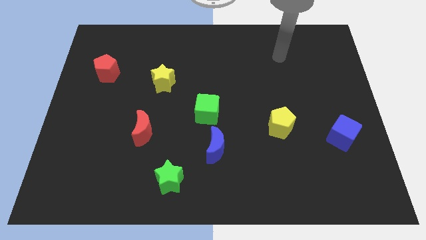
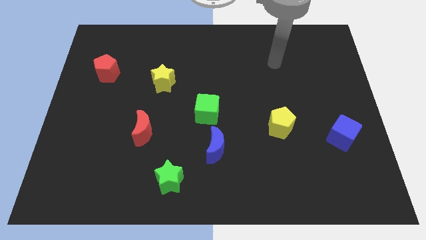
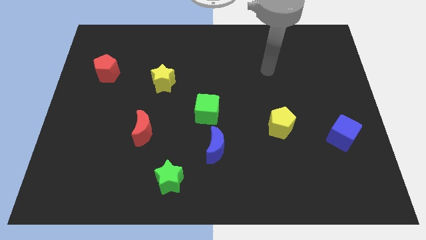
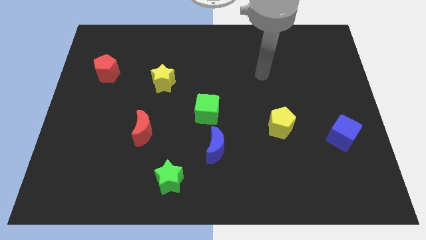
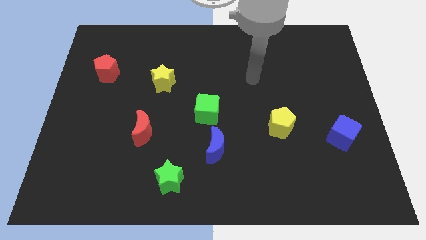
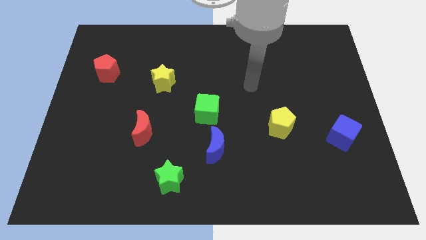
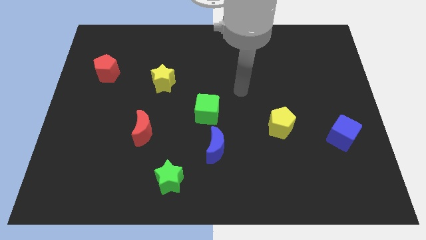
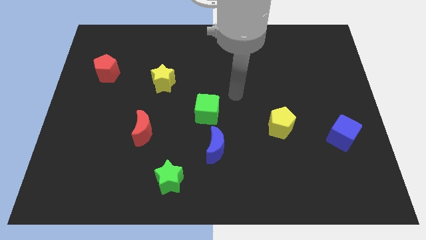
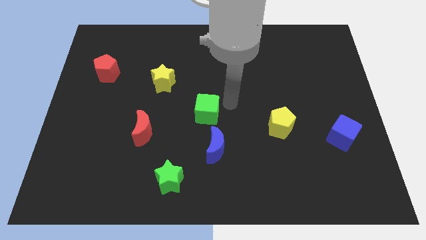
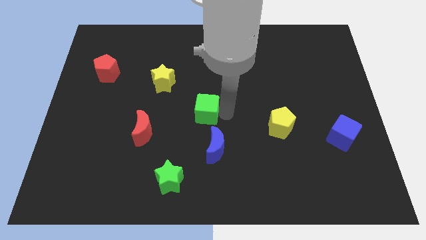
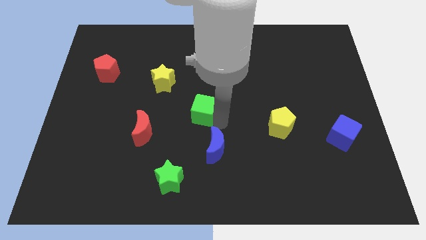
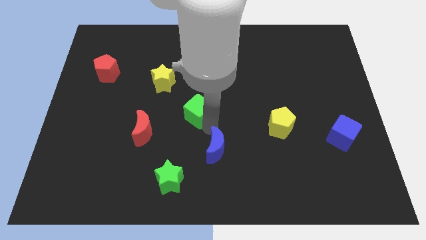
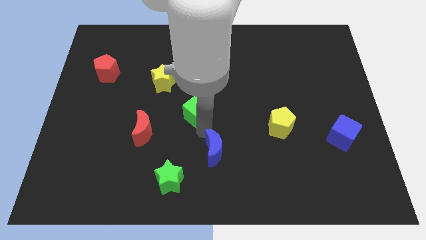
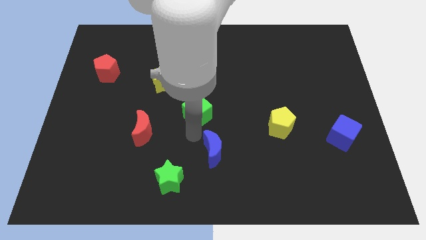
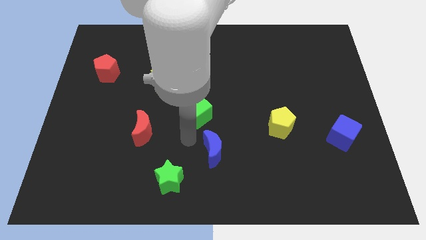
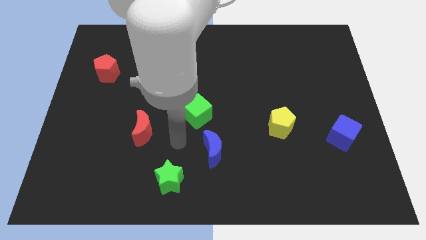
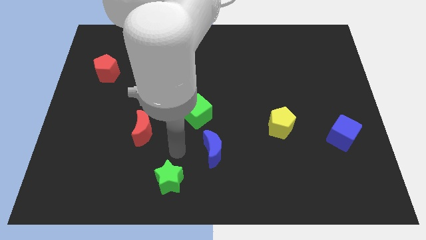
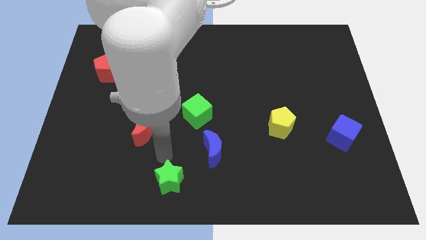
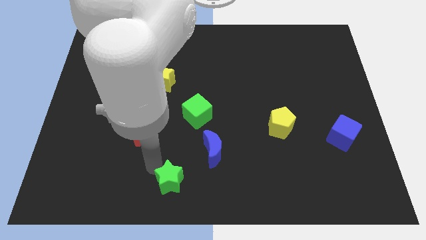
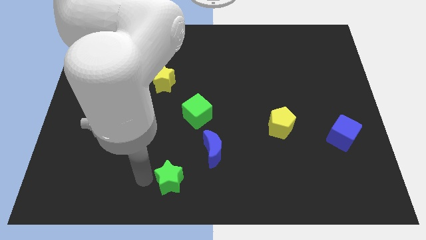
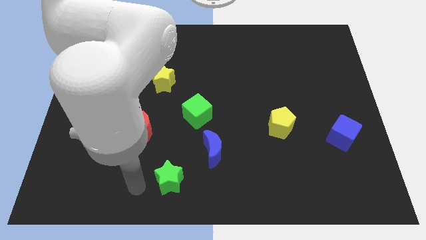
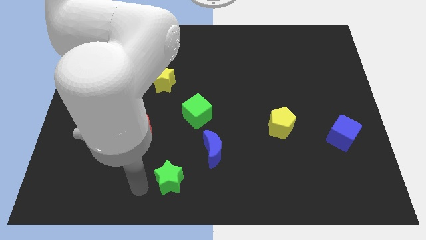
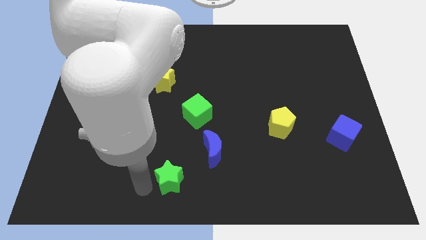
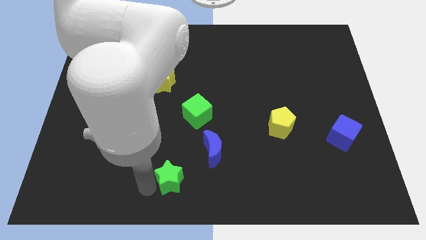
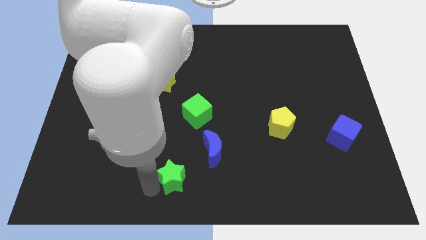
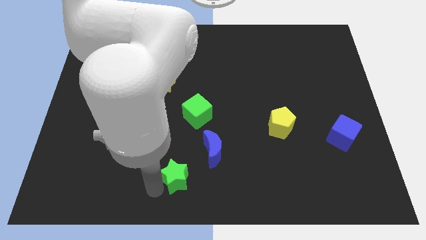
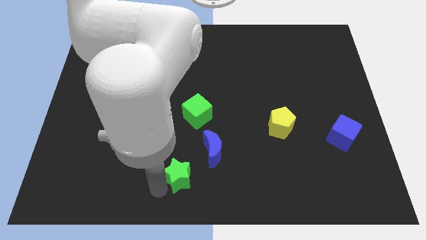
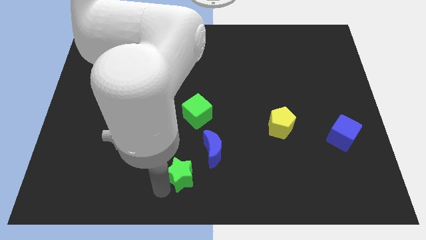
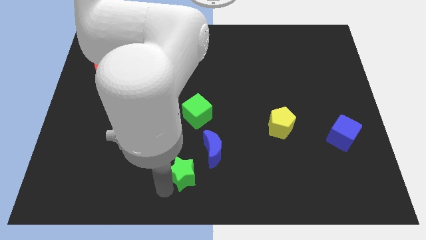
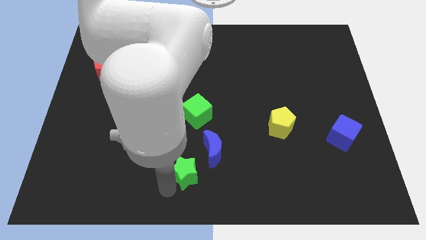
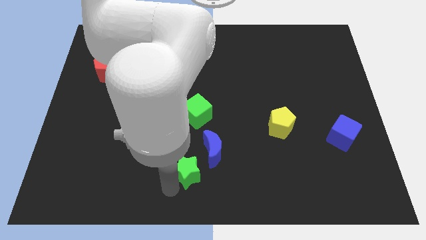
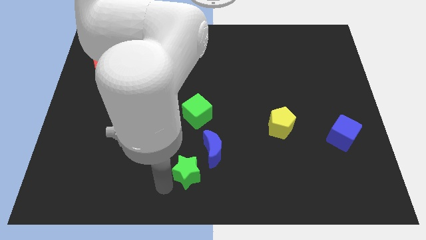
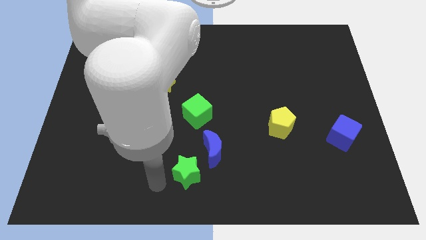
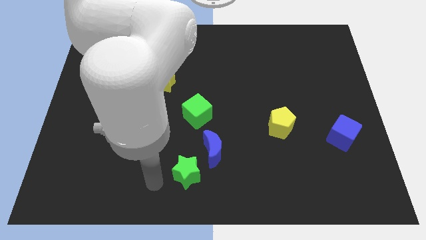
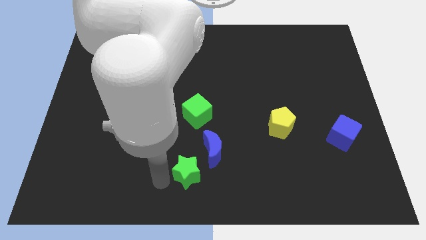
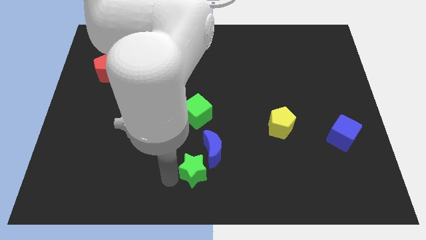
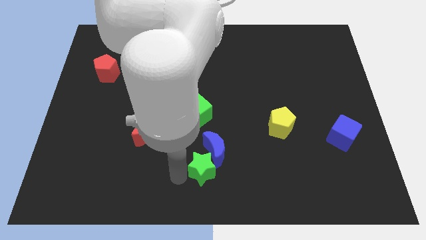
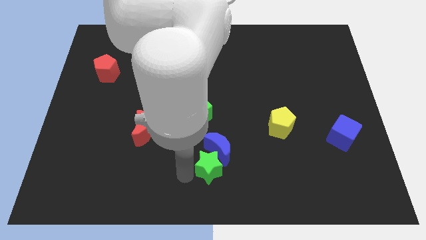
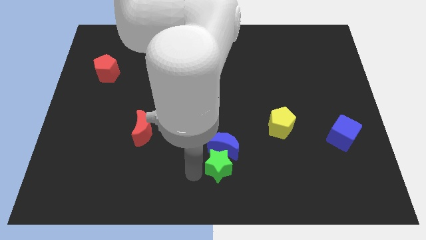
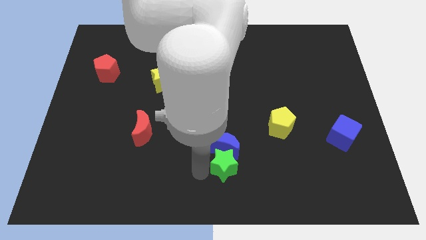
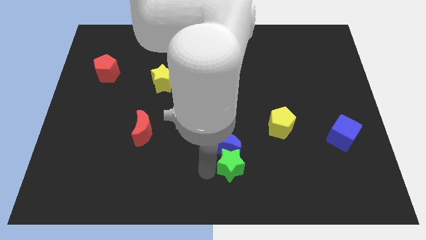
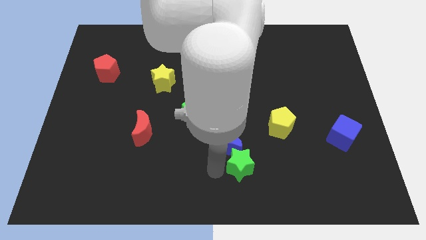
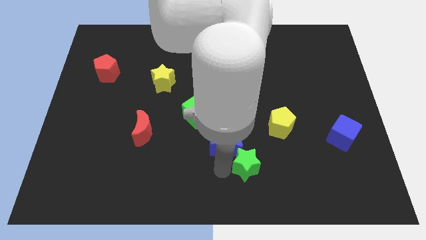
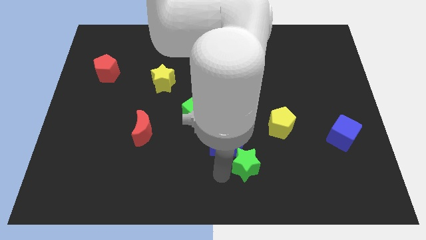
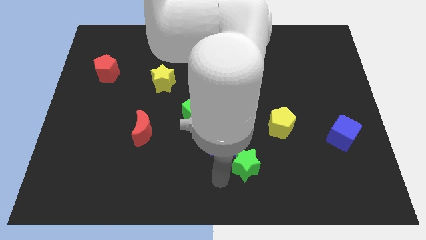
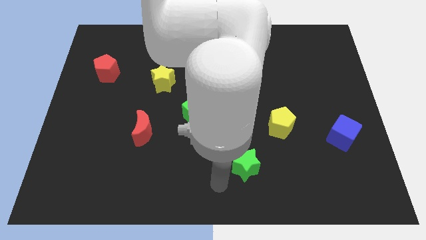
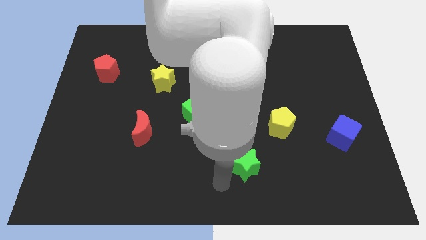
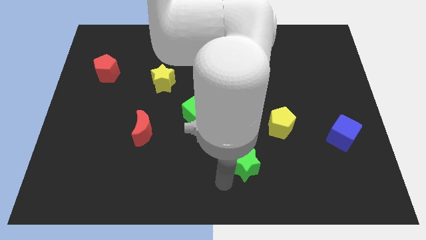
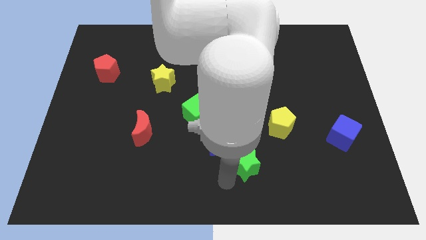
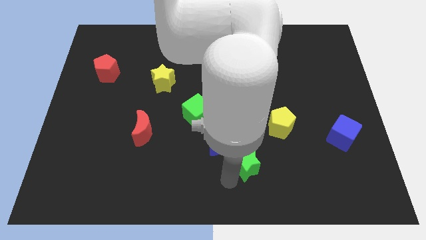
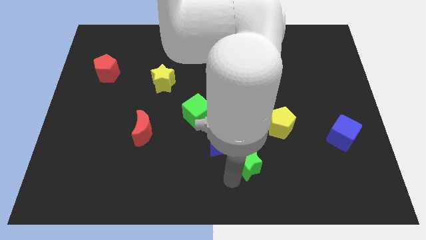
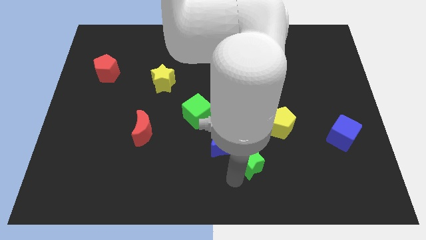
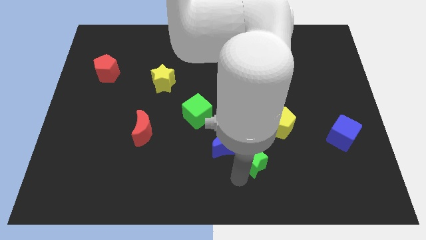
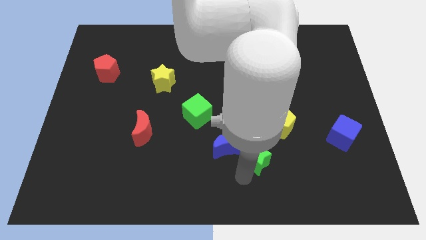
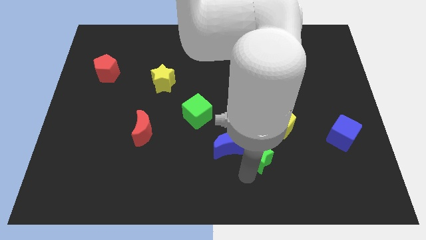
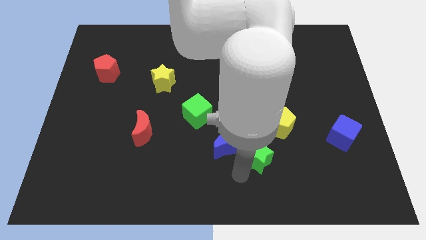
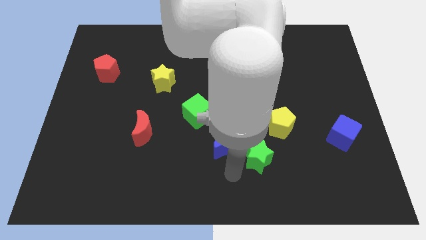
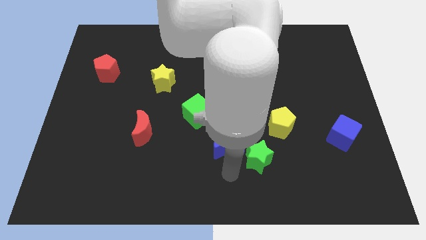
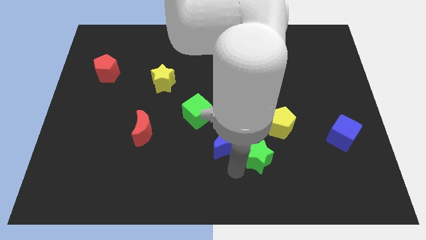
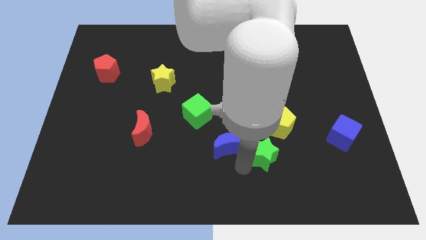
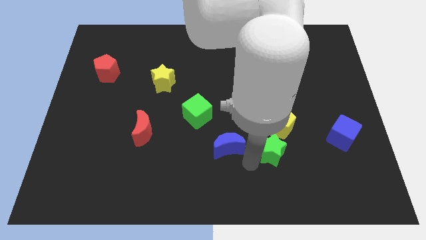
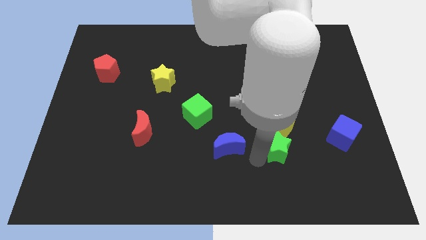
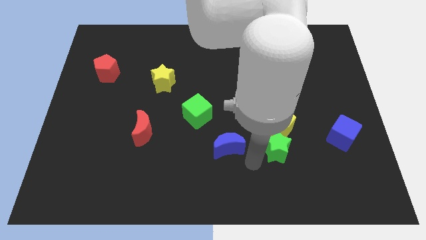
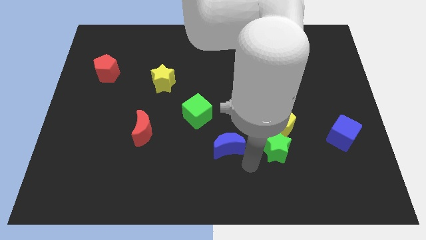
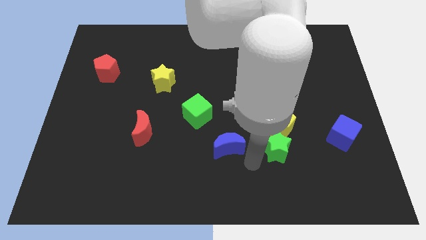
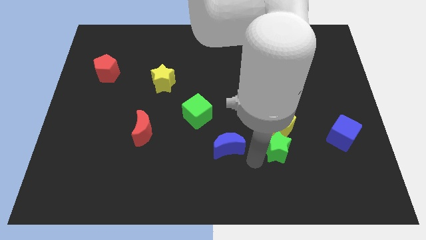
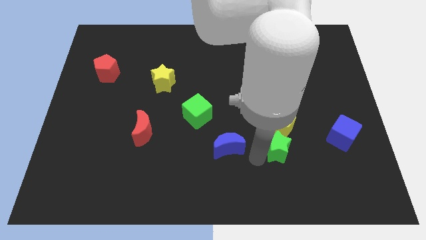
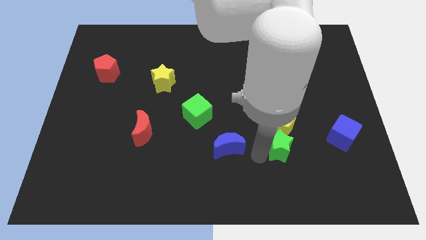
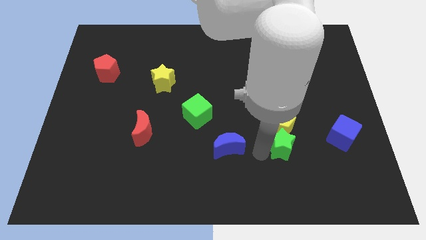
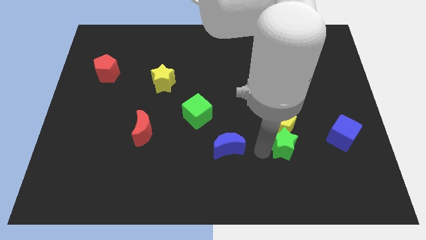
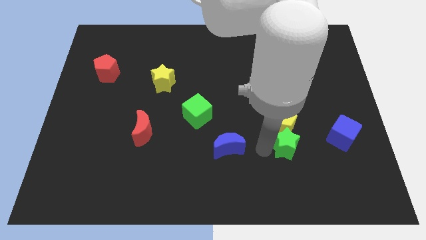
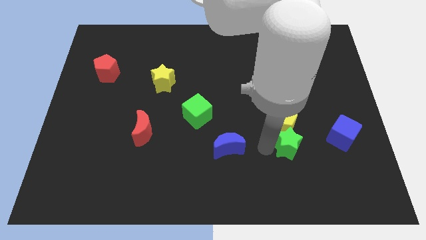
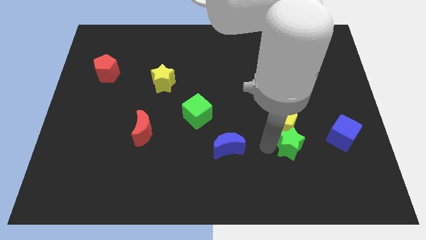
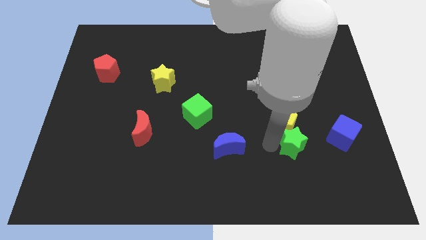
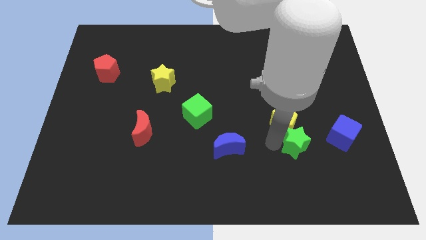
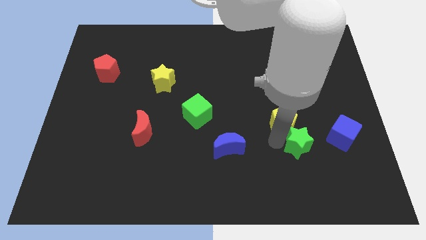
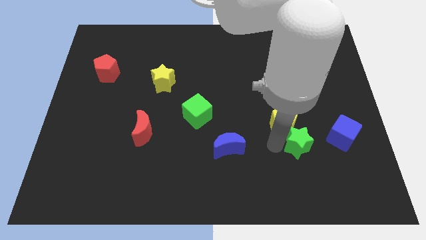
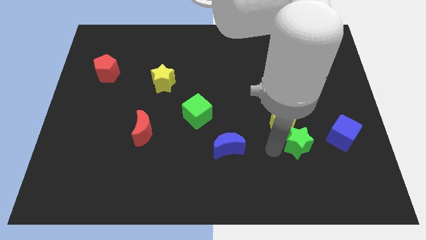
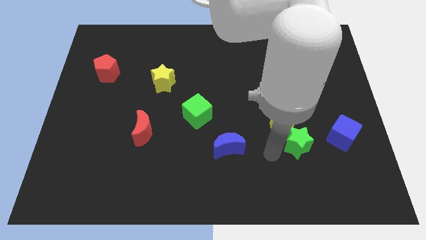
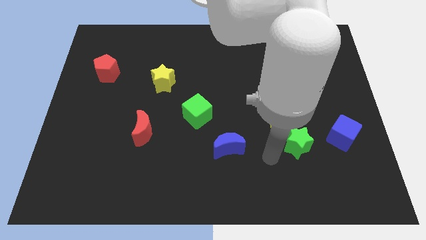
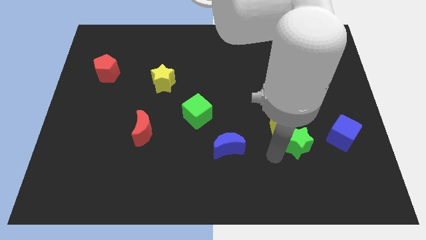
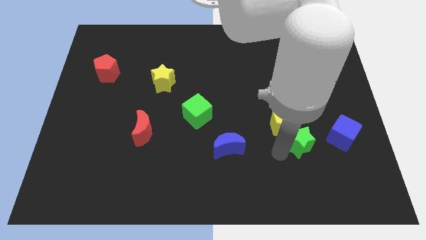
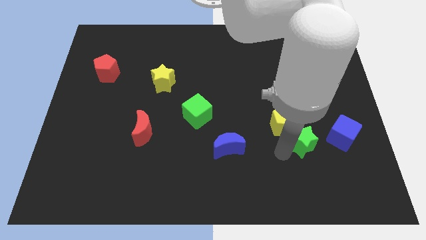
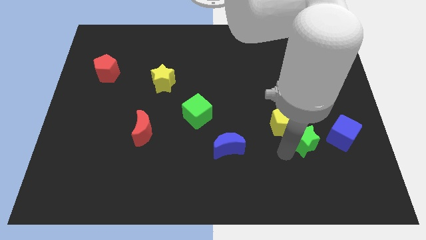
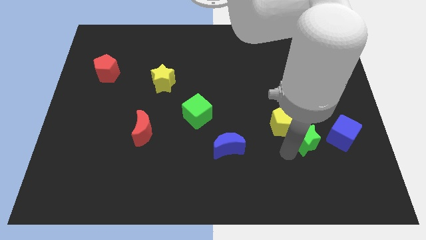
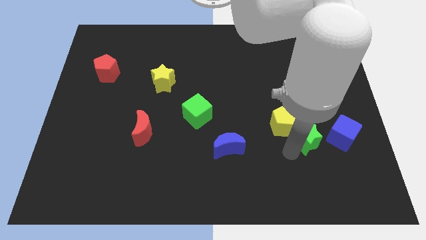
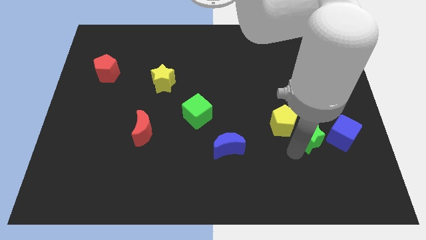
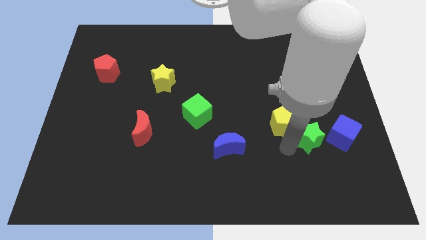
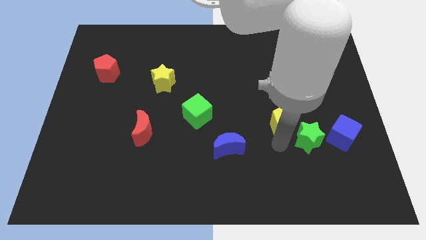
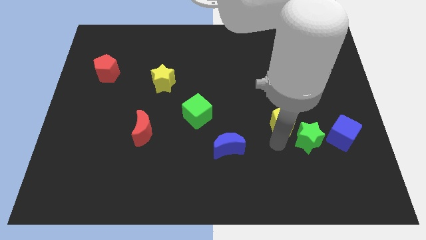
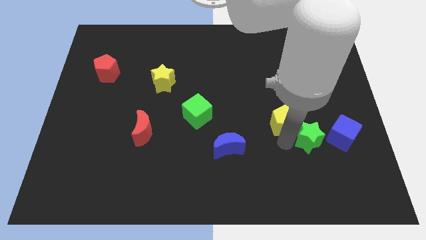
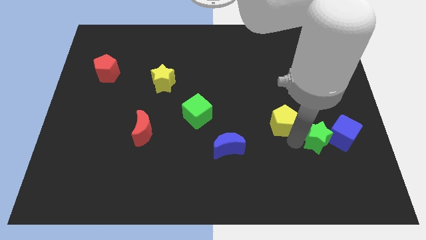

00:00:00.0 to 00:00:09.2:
push the green star towards the blue cube
